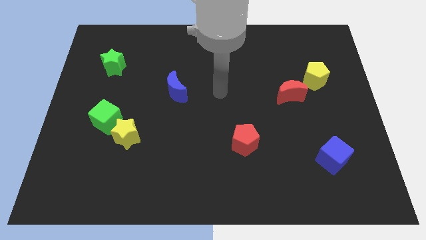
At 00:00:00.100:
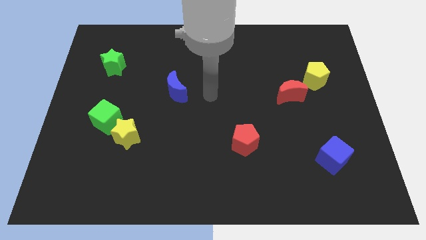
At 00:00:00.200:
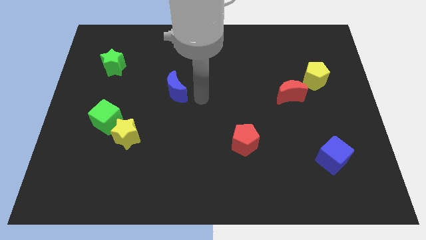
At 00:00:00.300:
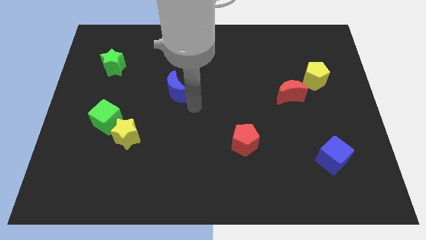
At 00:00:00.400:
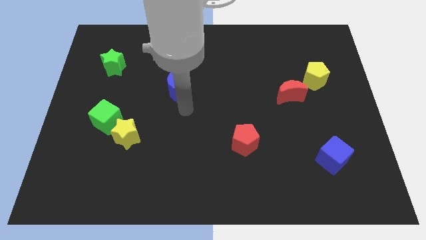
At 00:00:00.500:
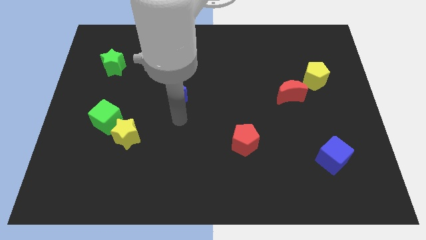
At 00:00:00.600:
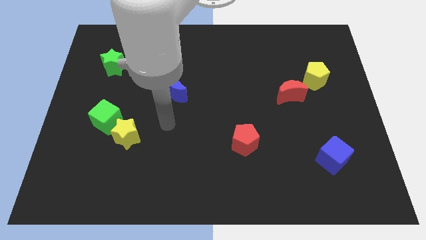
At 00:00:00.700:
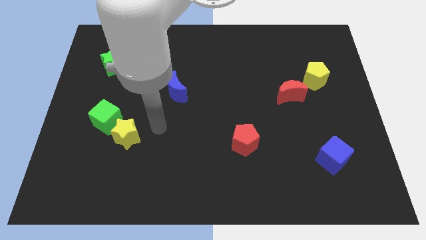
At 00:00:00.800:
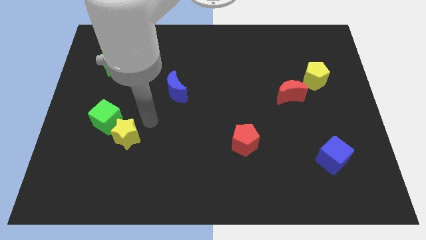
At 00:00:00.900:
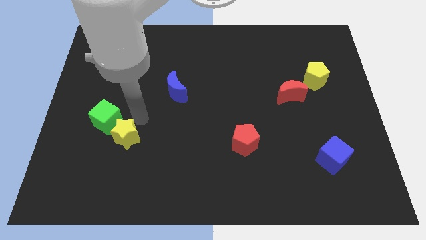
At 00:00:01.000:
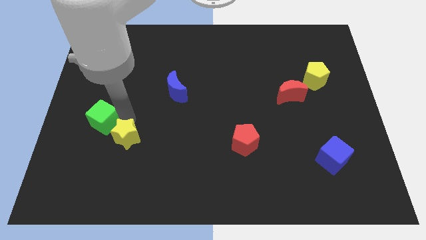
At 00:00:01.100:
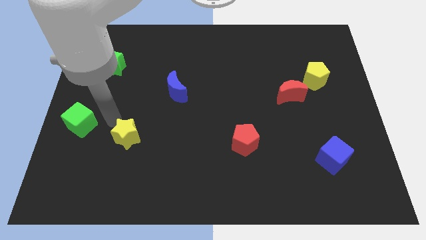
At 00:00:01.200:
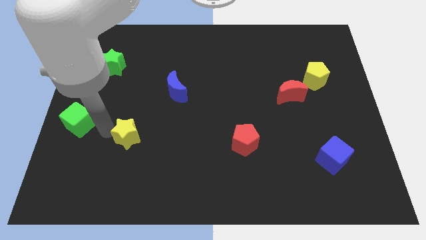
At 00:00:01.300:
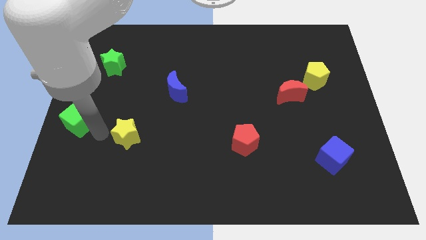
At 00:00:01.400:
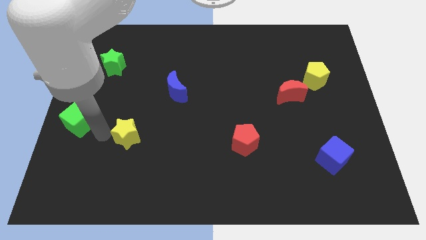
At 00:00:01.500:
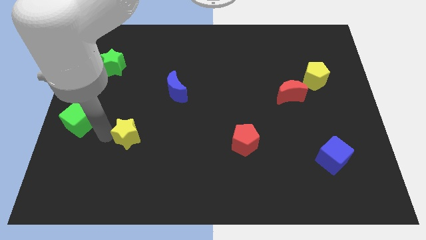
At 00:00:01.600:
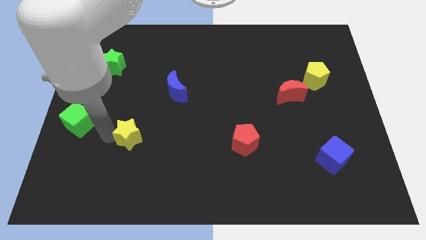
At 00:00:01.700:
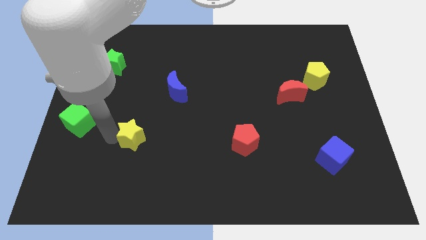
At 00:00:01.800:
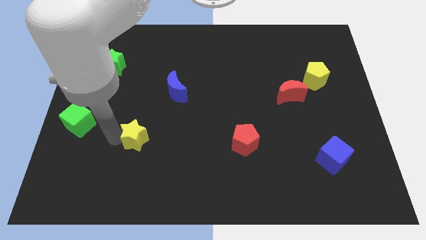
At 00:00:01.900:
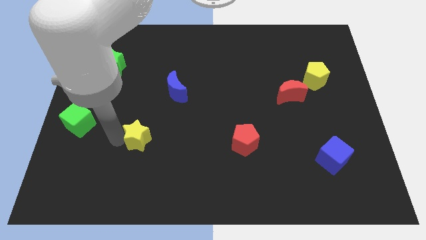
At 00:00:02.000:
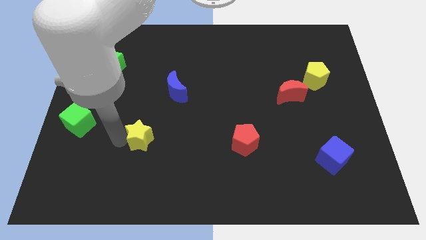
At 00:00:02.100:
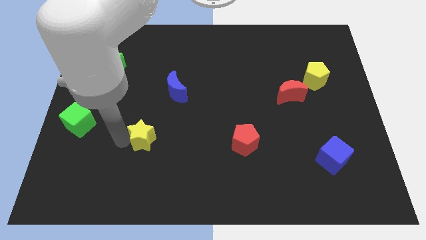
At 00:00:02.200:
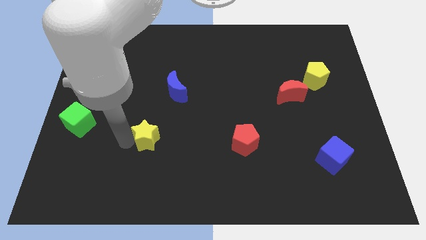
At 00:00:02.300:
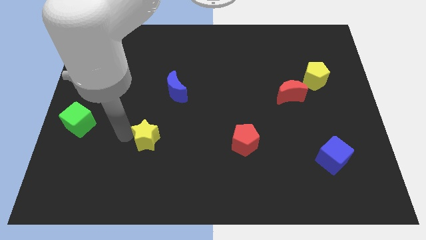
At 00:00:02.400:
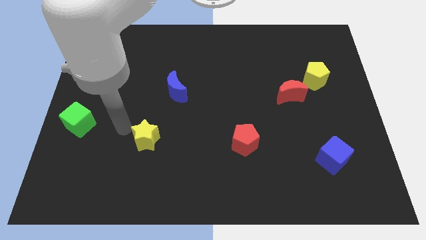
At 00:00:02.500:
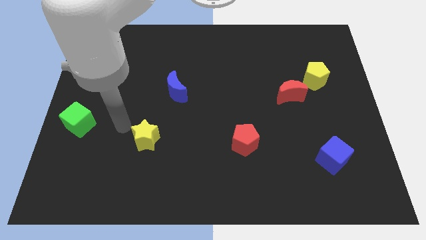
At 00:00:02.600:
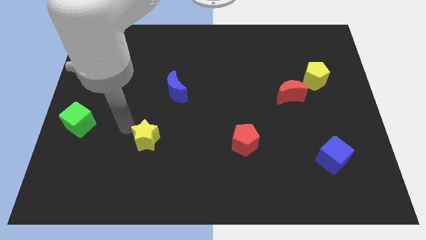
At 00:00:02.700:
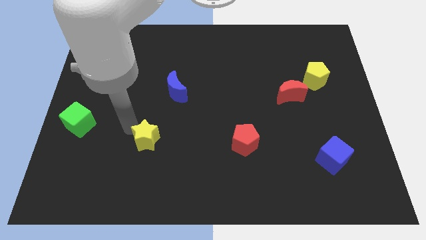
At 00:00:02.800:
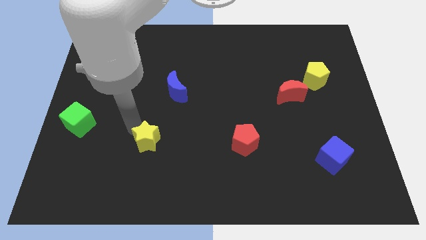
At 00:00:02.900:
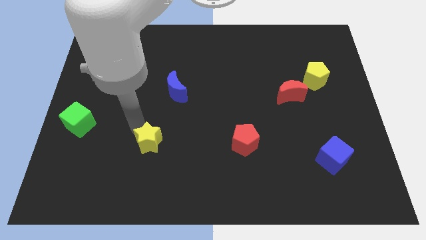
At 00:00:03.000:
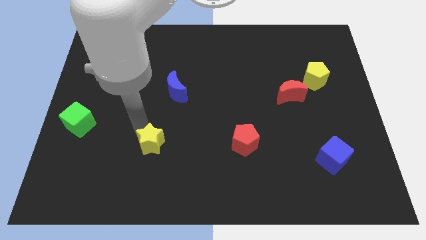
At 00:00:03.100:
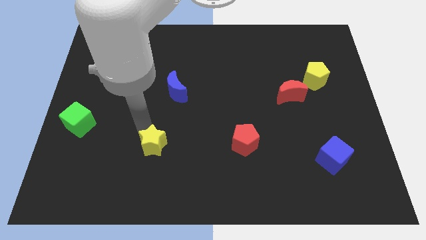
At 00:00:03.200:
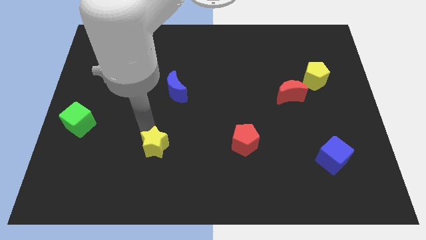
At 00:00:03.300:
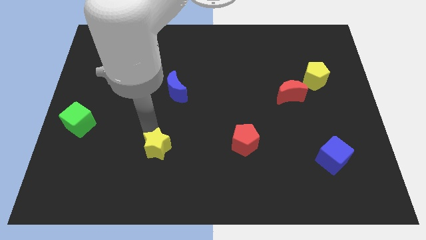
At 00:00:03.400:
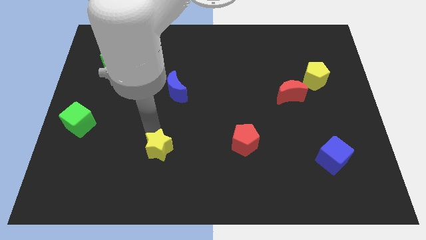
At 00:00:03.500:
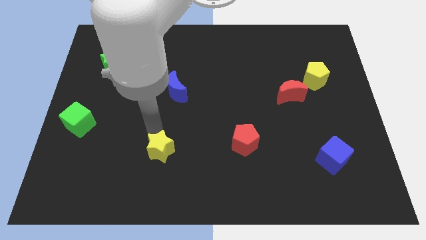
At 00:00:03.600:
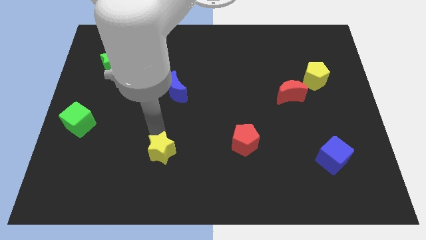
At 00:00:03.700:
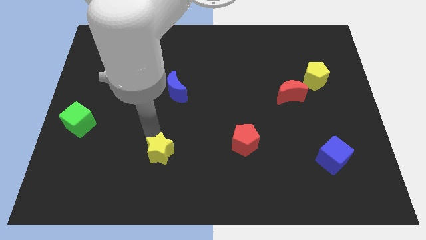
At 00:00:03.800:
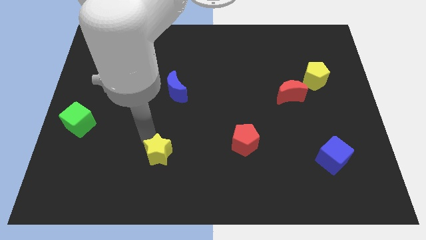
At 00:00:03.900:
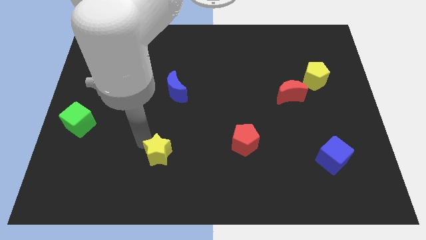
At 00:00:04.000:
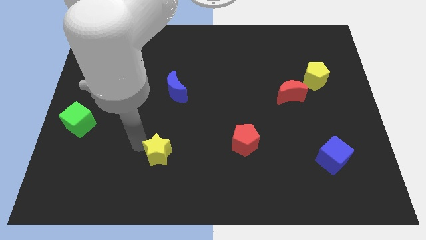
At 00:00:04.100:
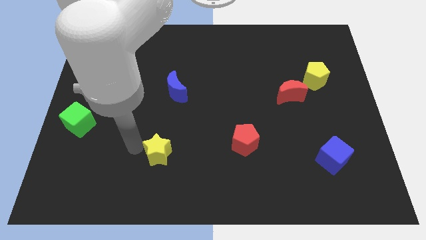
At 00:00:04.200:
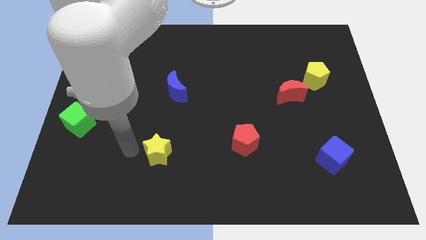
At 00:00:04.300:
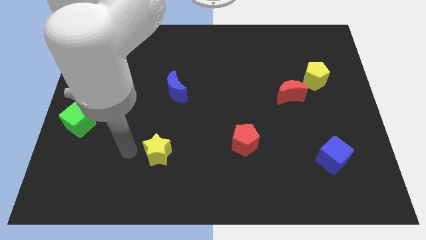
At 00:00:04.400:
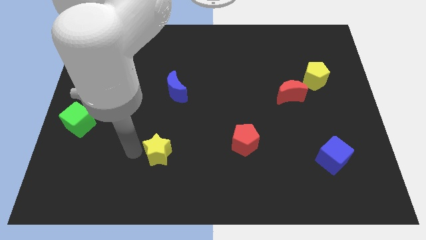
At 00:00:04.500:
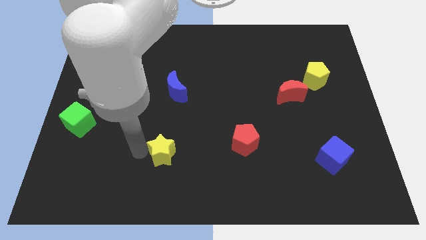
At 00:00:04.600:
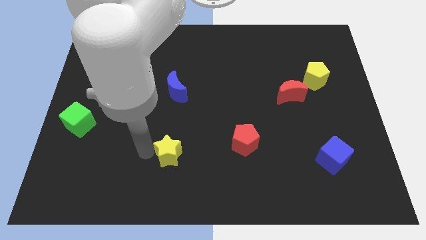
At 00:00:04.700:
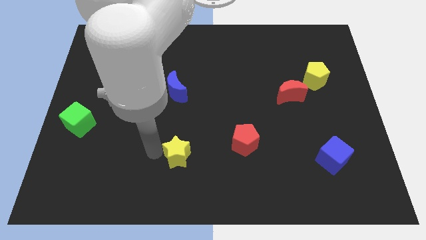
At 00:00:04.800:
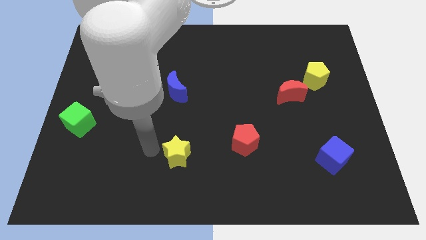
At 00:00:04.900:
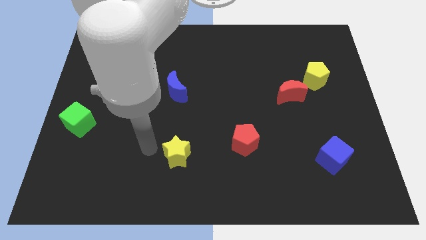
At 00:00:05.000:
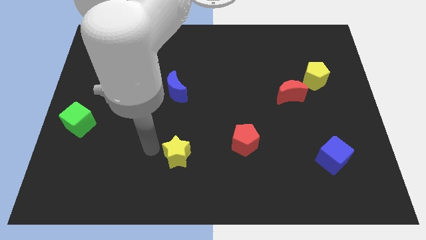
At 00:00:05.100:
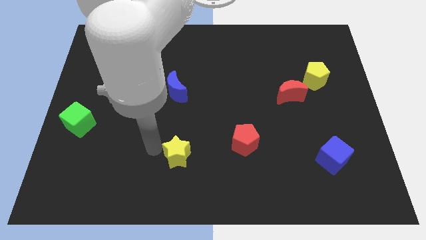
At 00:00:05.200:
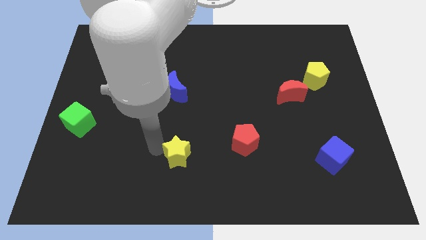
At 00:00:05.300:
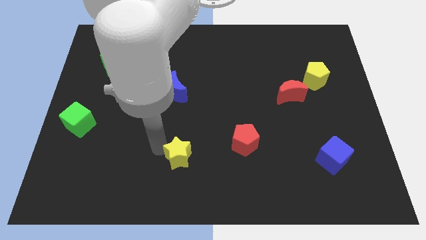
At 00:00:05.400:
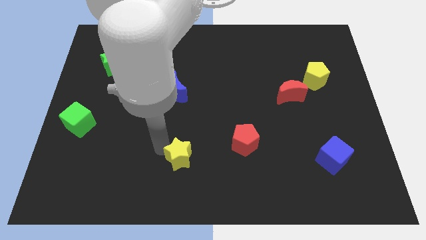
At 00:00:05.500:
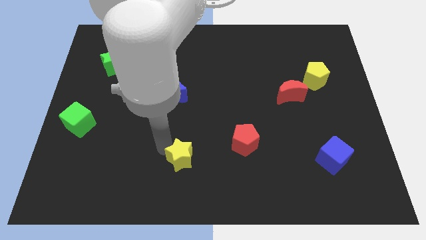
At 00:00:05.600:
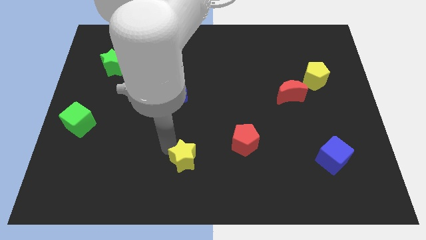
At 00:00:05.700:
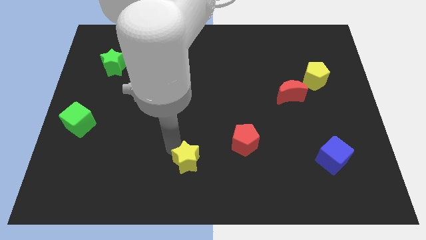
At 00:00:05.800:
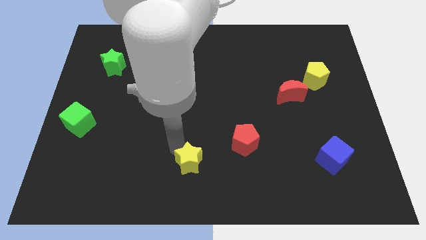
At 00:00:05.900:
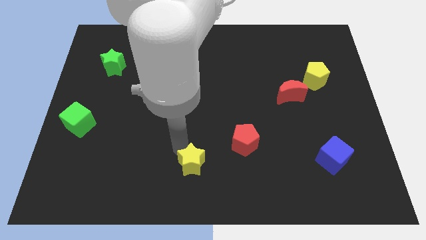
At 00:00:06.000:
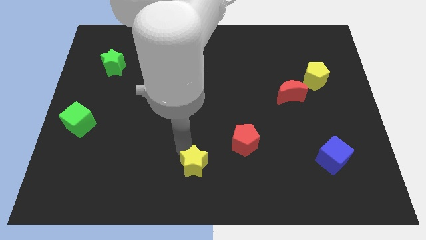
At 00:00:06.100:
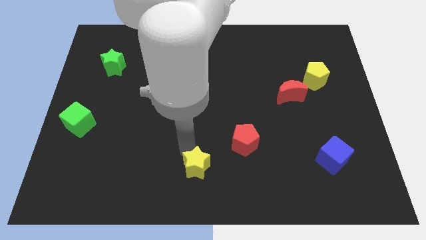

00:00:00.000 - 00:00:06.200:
move the yellow star to the bottom left side of the red pentagon

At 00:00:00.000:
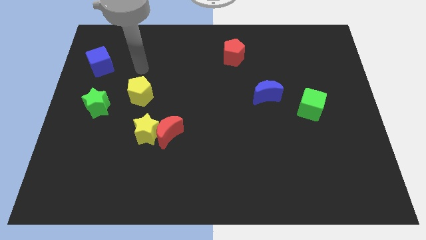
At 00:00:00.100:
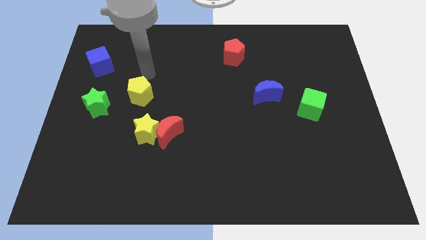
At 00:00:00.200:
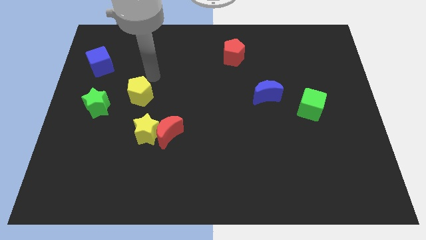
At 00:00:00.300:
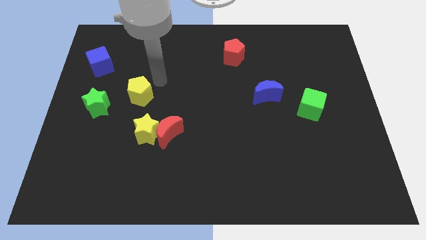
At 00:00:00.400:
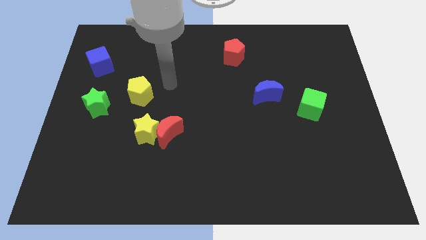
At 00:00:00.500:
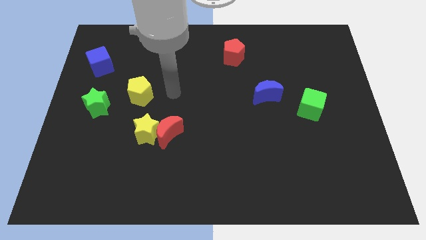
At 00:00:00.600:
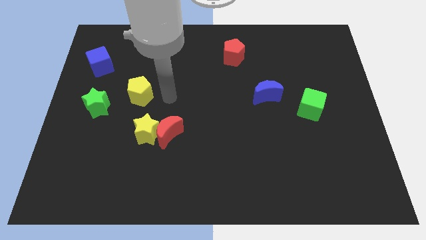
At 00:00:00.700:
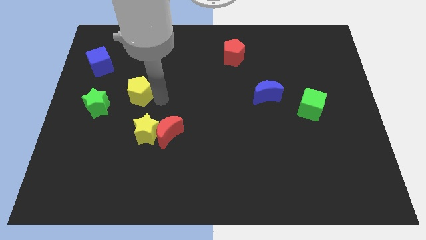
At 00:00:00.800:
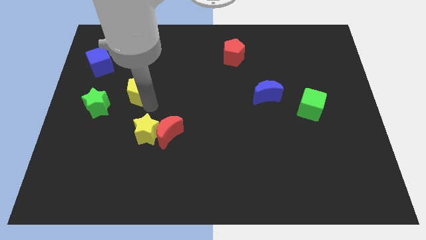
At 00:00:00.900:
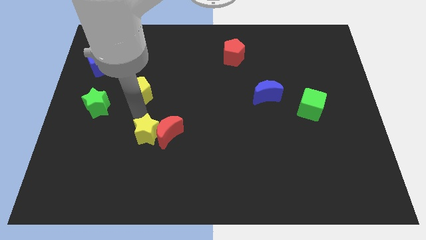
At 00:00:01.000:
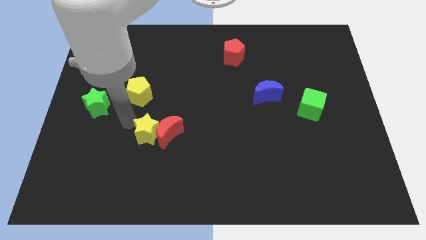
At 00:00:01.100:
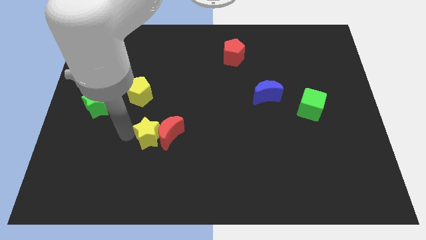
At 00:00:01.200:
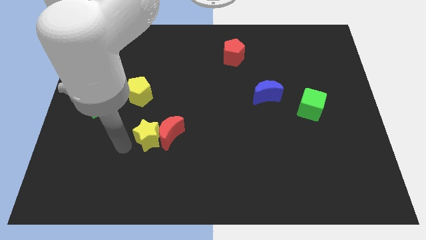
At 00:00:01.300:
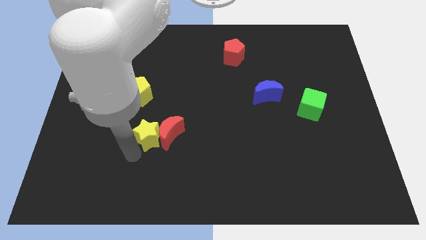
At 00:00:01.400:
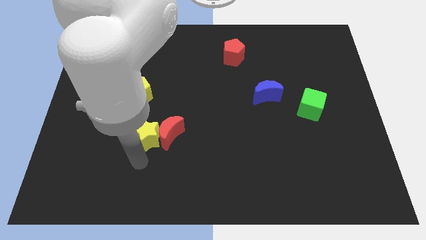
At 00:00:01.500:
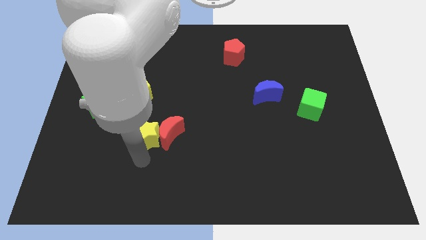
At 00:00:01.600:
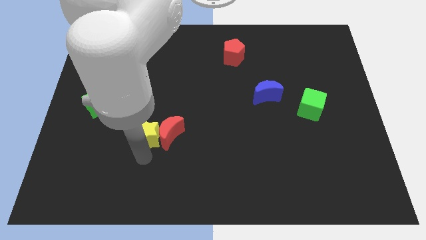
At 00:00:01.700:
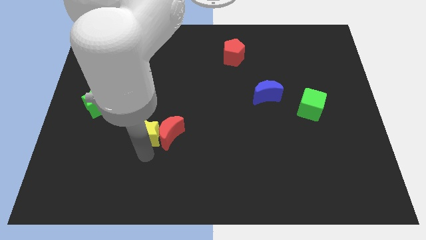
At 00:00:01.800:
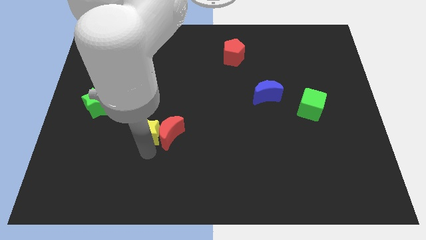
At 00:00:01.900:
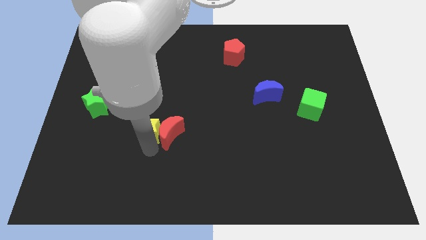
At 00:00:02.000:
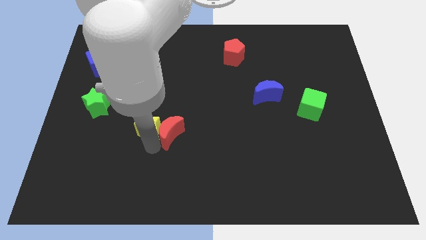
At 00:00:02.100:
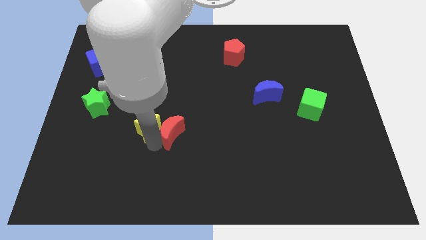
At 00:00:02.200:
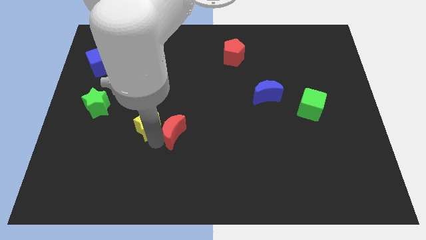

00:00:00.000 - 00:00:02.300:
put the yellow star diagonally down and to the right of the yellow pentagon
